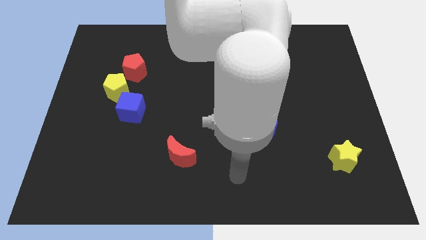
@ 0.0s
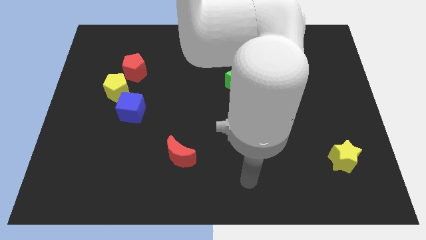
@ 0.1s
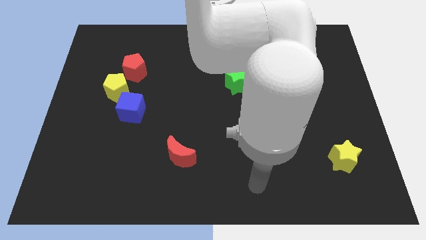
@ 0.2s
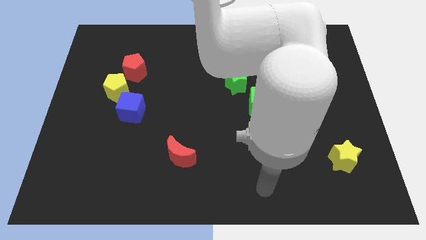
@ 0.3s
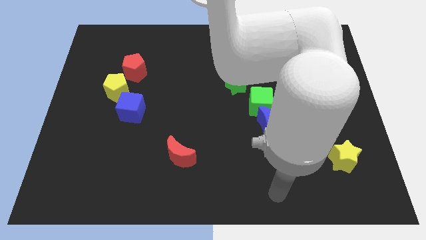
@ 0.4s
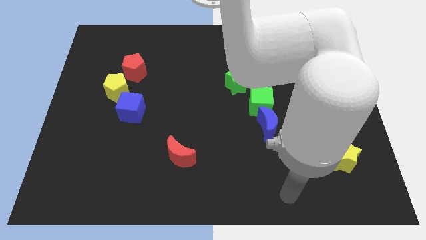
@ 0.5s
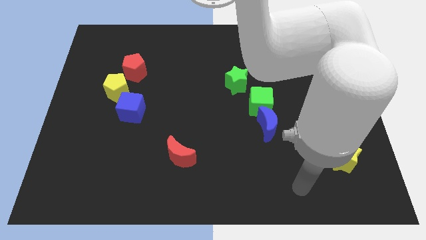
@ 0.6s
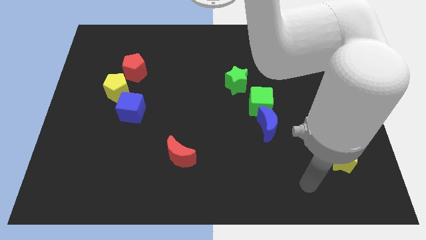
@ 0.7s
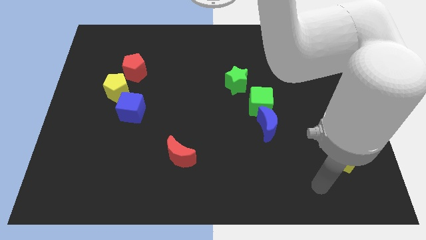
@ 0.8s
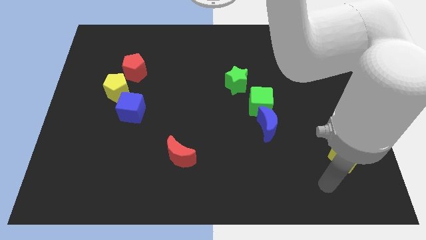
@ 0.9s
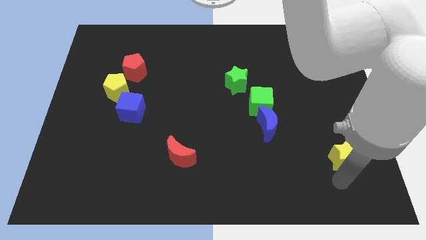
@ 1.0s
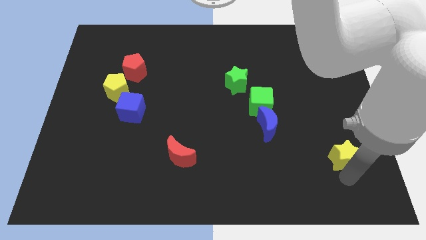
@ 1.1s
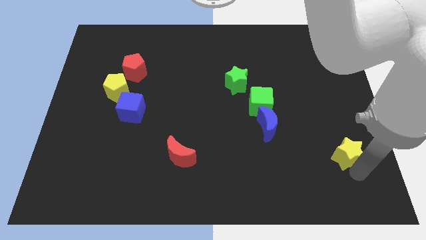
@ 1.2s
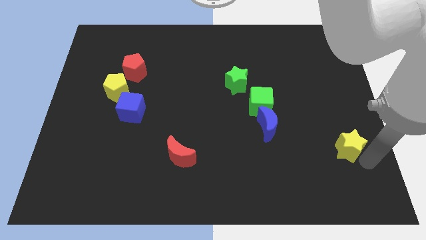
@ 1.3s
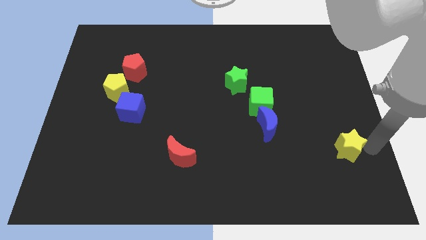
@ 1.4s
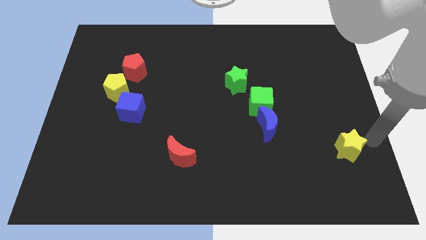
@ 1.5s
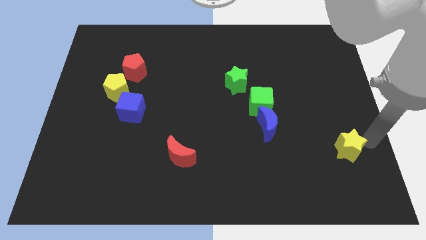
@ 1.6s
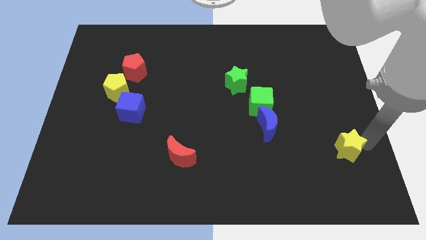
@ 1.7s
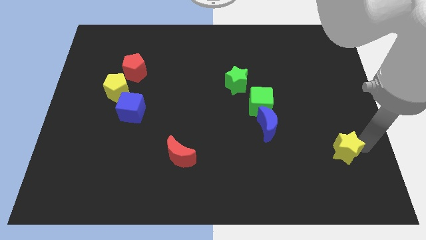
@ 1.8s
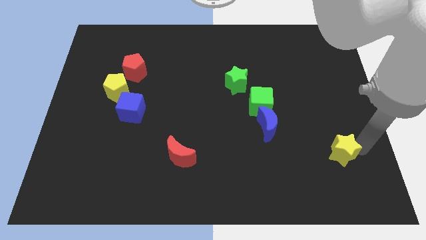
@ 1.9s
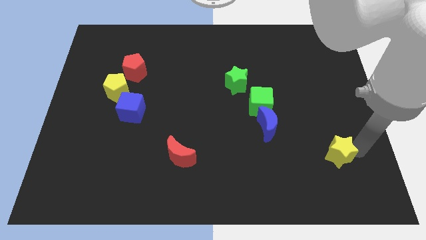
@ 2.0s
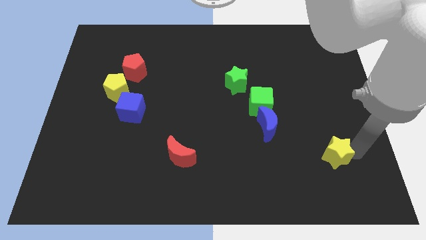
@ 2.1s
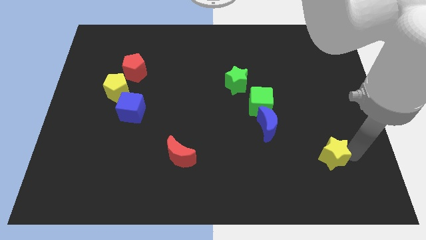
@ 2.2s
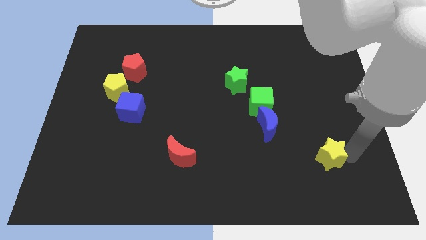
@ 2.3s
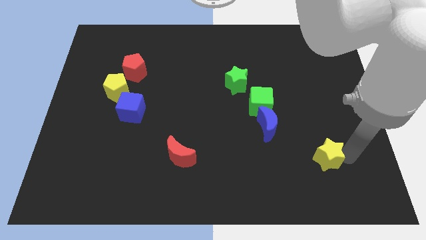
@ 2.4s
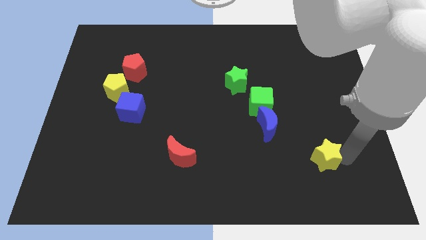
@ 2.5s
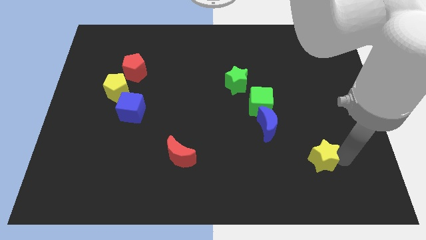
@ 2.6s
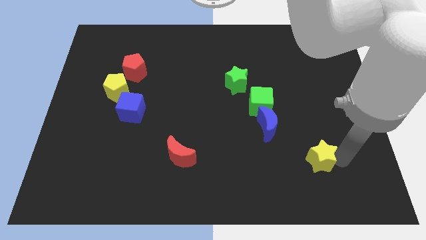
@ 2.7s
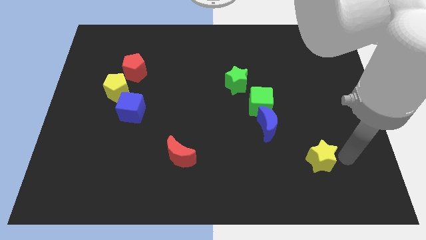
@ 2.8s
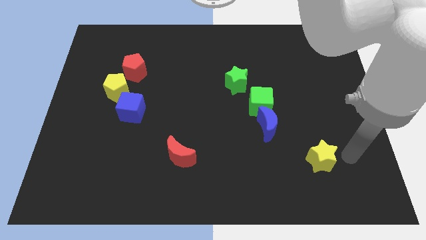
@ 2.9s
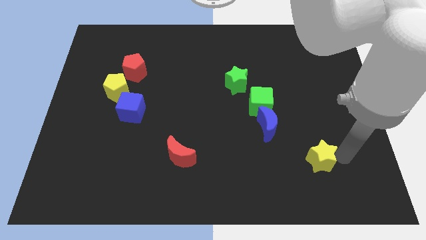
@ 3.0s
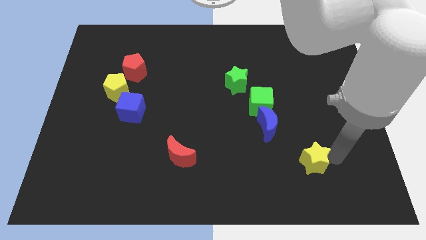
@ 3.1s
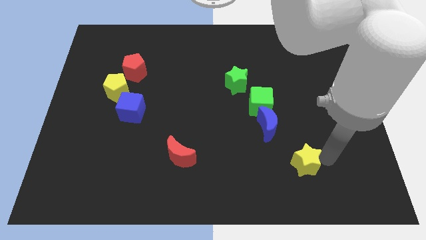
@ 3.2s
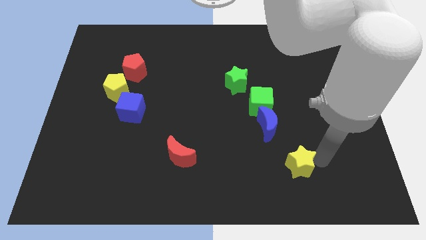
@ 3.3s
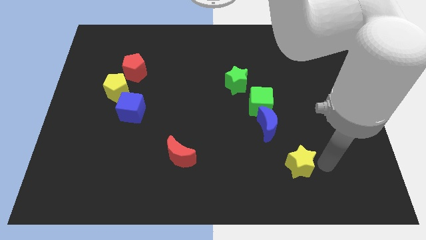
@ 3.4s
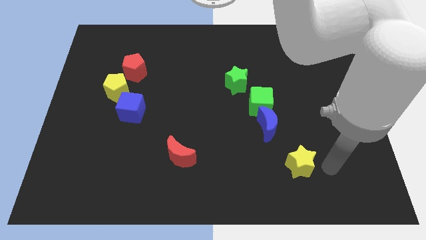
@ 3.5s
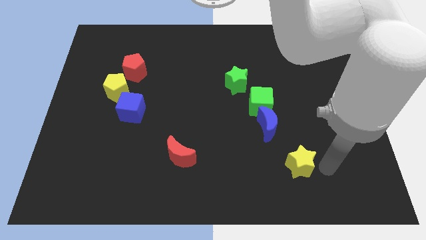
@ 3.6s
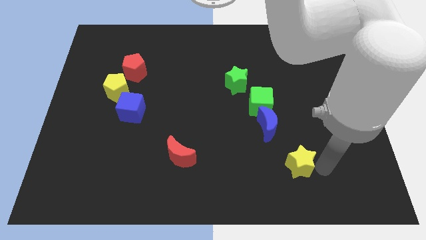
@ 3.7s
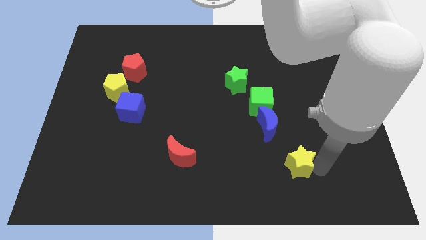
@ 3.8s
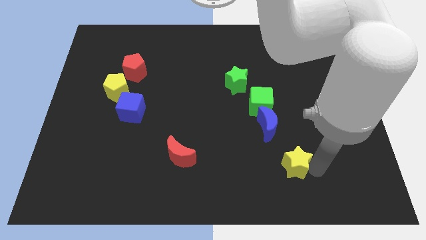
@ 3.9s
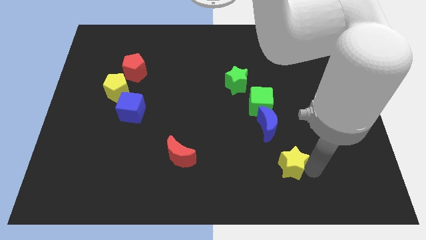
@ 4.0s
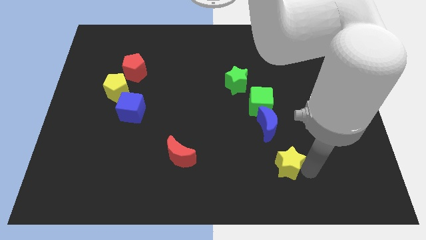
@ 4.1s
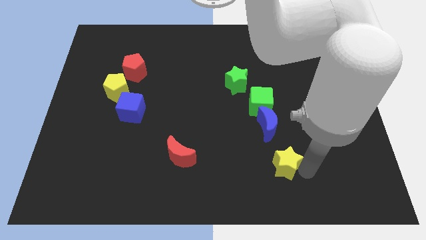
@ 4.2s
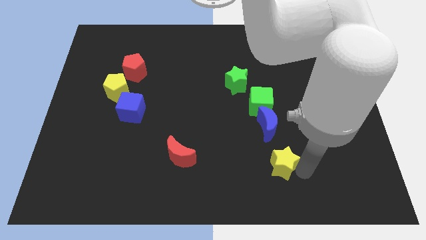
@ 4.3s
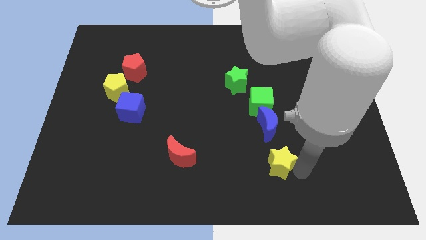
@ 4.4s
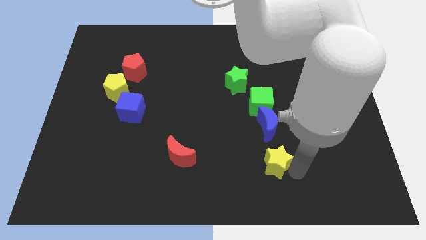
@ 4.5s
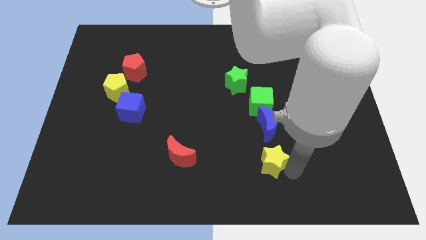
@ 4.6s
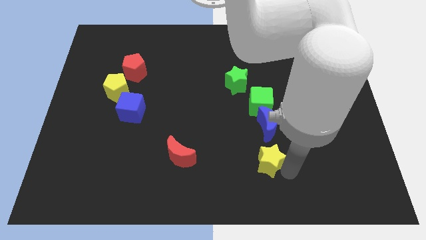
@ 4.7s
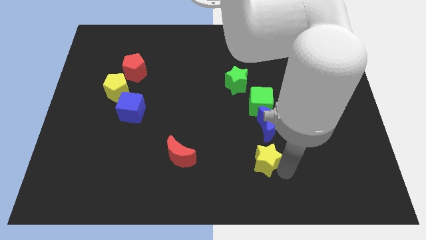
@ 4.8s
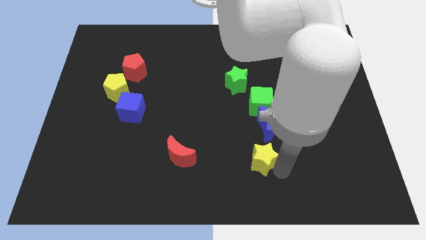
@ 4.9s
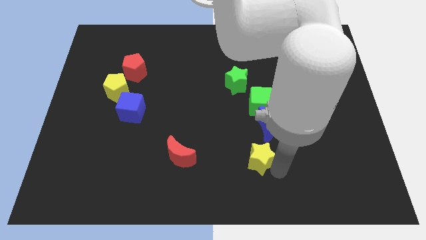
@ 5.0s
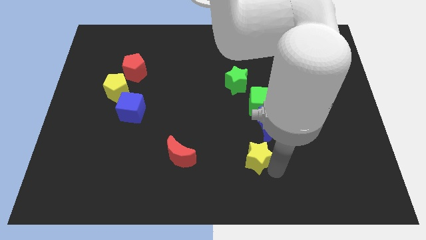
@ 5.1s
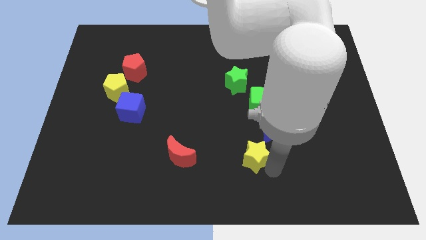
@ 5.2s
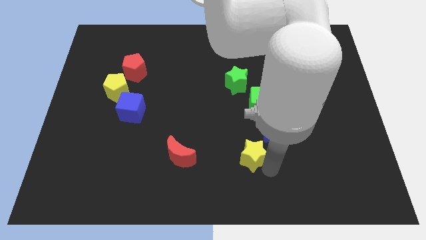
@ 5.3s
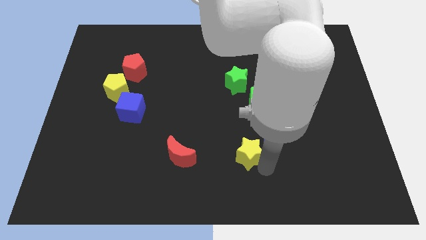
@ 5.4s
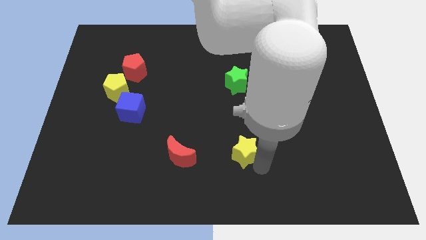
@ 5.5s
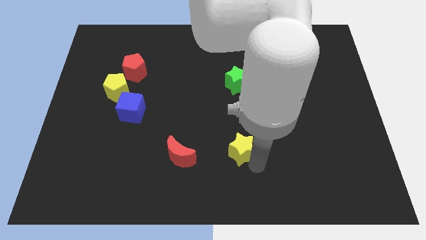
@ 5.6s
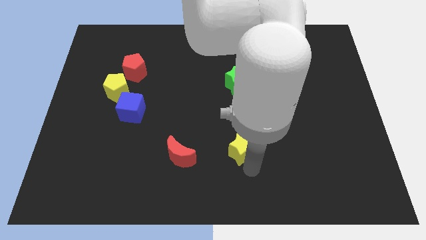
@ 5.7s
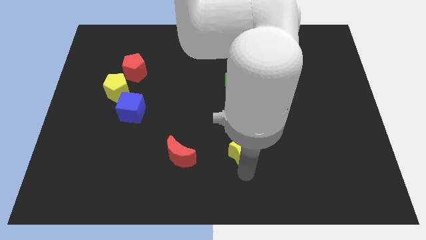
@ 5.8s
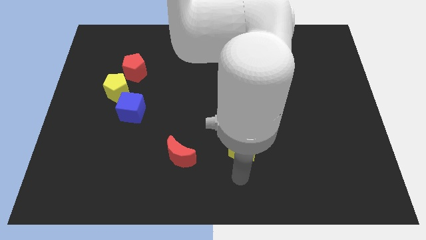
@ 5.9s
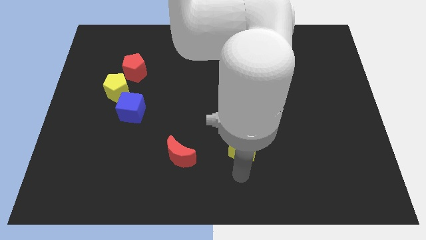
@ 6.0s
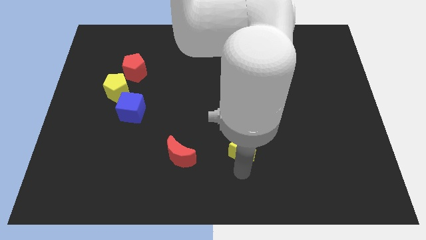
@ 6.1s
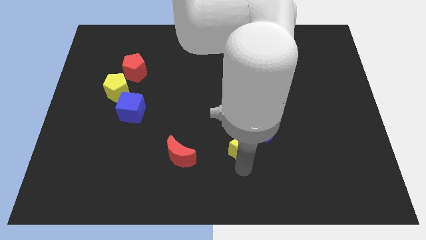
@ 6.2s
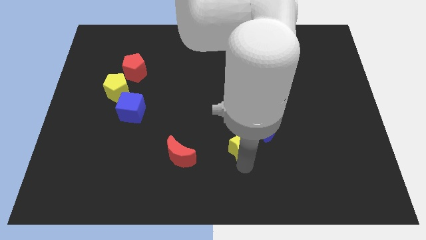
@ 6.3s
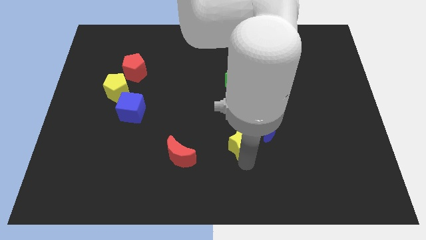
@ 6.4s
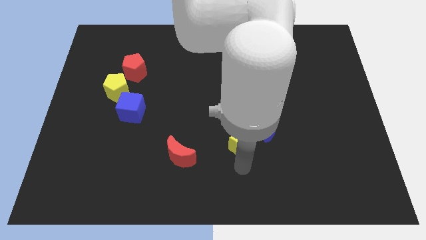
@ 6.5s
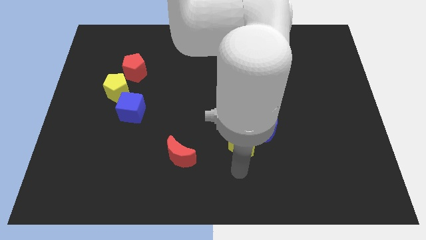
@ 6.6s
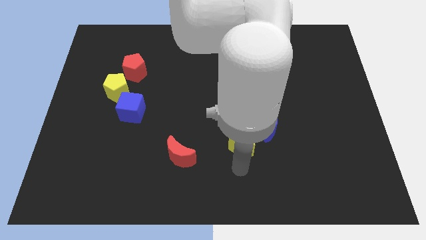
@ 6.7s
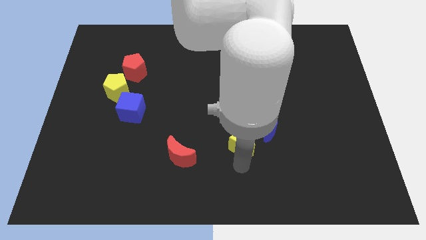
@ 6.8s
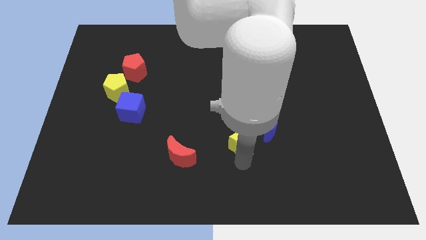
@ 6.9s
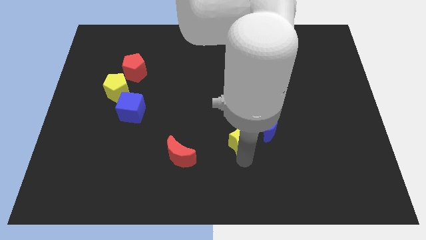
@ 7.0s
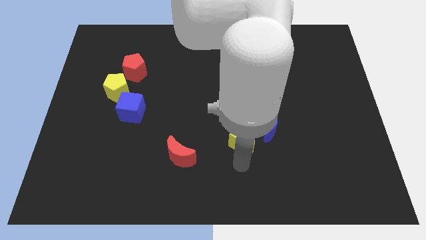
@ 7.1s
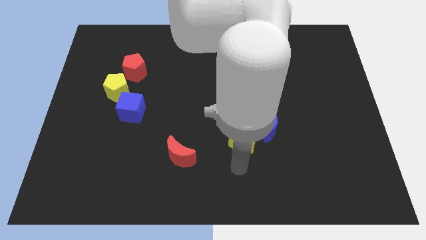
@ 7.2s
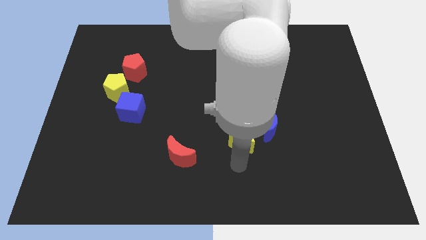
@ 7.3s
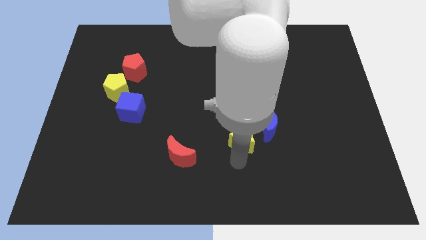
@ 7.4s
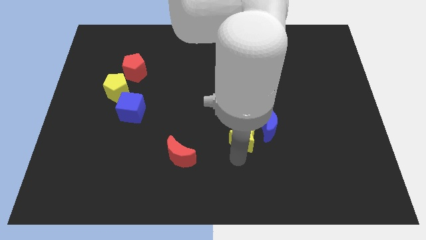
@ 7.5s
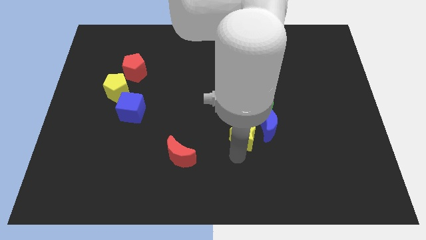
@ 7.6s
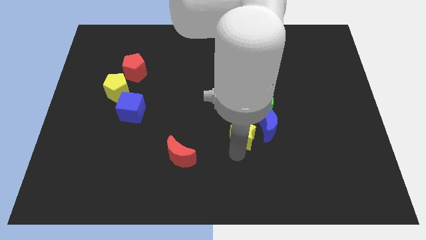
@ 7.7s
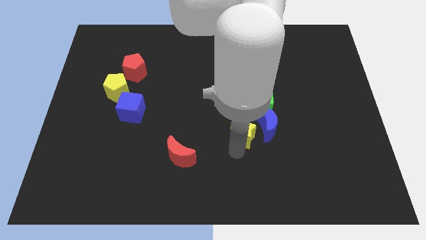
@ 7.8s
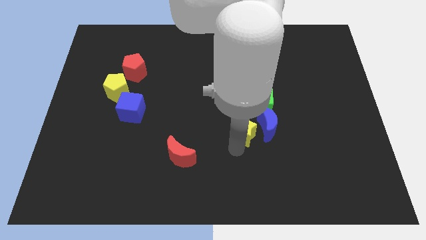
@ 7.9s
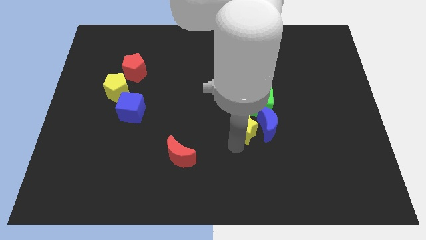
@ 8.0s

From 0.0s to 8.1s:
move the yellow star to the top left of the blue moon
